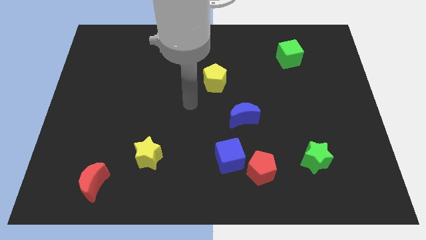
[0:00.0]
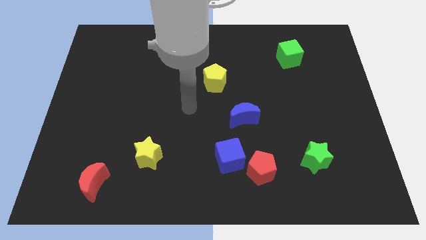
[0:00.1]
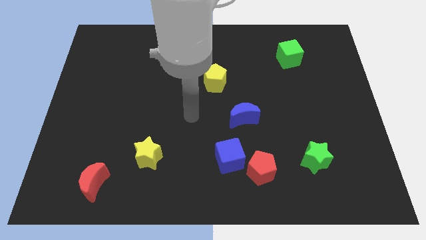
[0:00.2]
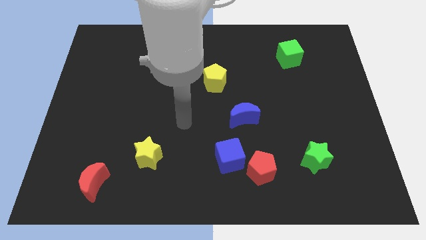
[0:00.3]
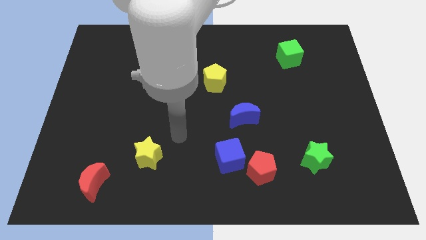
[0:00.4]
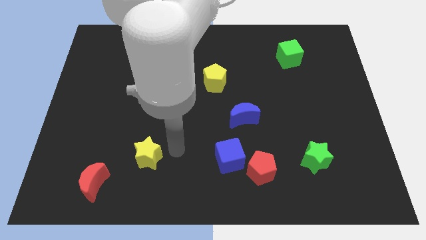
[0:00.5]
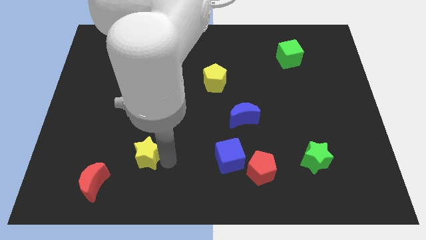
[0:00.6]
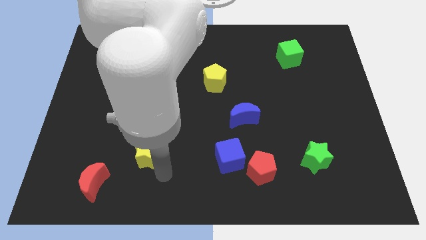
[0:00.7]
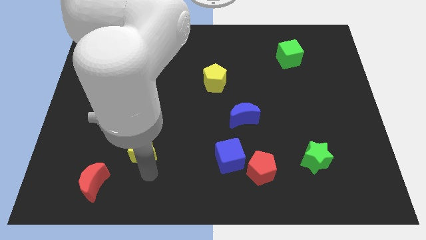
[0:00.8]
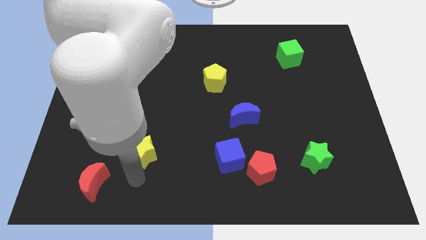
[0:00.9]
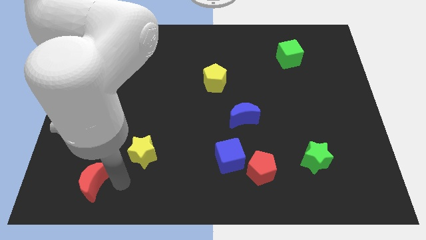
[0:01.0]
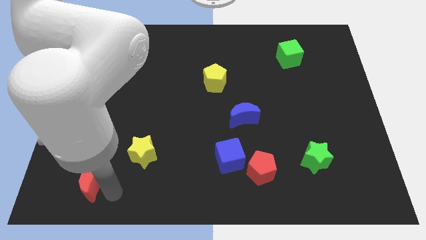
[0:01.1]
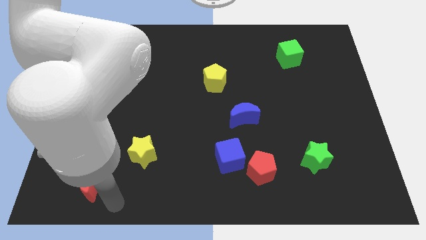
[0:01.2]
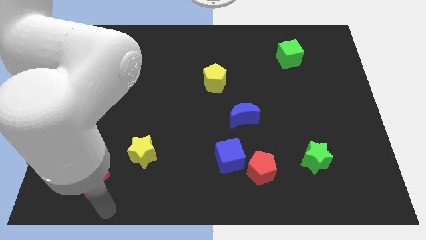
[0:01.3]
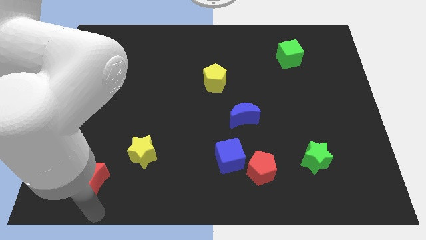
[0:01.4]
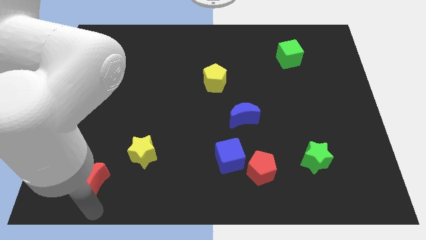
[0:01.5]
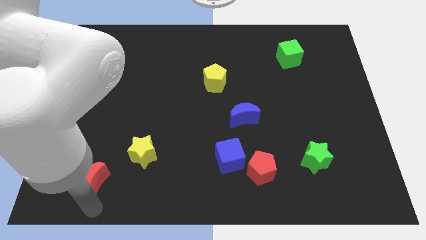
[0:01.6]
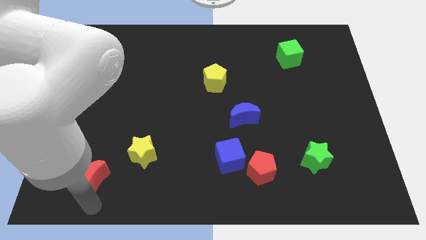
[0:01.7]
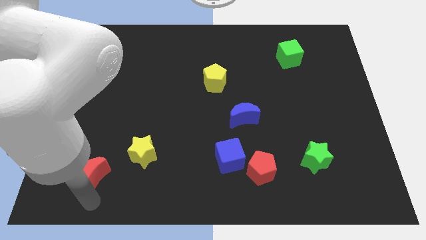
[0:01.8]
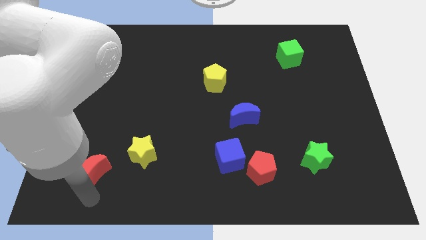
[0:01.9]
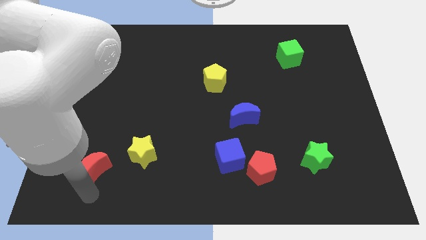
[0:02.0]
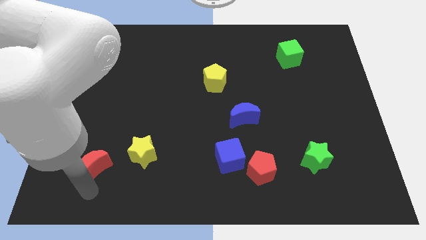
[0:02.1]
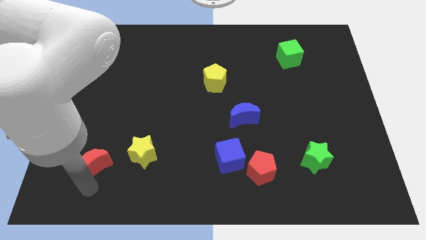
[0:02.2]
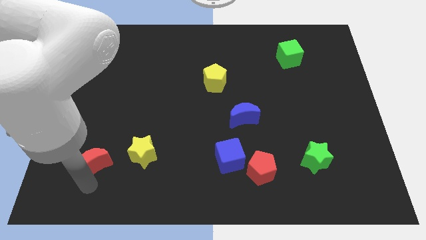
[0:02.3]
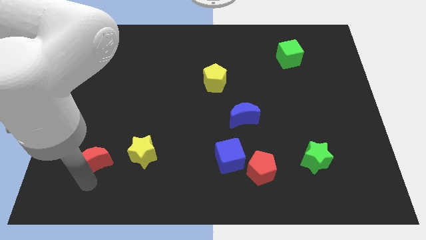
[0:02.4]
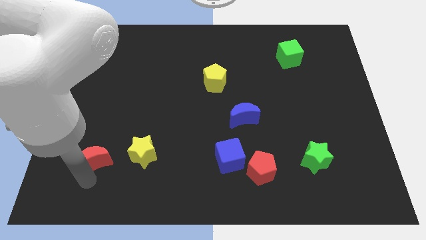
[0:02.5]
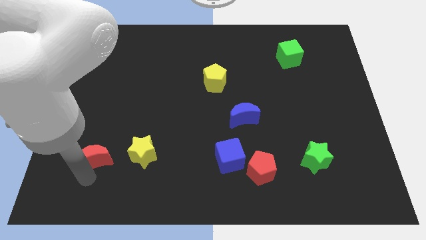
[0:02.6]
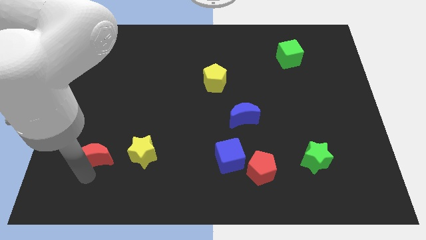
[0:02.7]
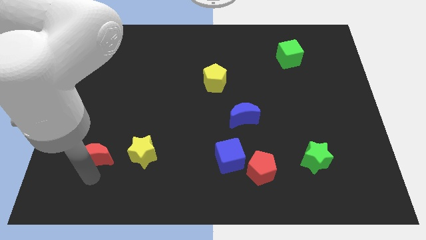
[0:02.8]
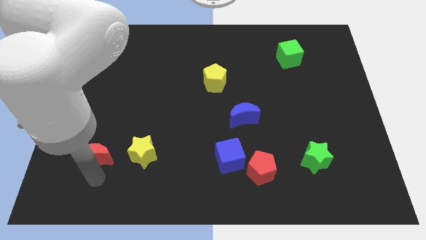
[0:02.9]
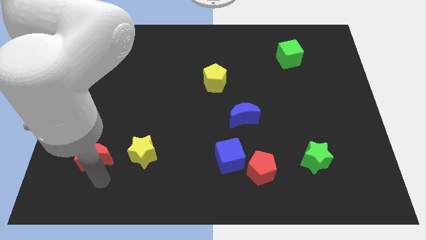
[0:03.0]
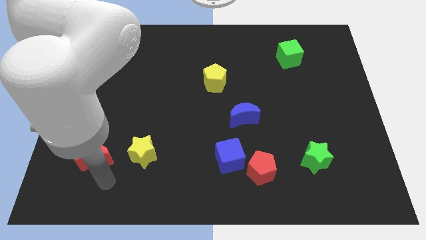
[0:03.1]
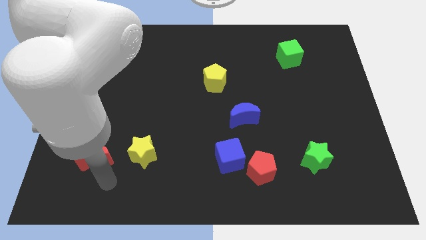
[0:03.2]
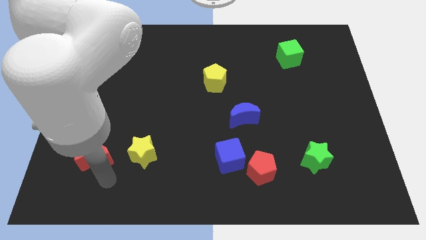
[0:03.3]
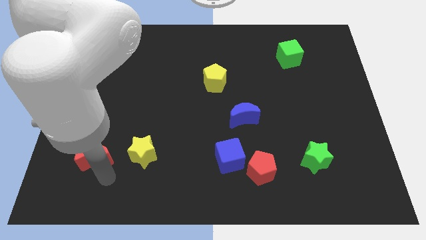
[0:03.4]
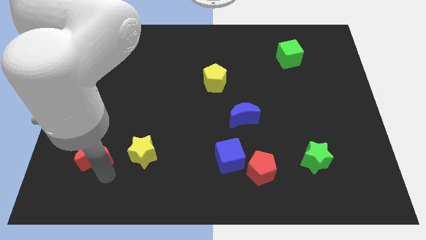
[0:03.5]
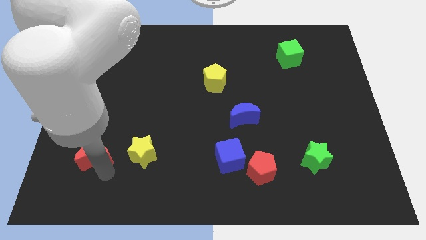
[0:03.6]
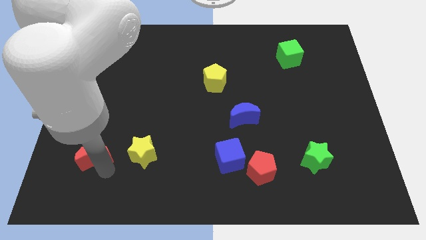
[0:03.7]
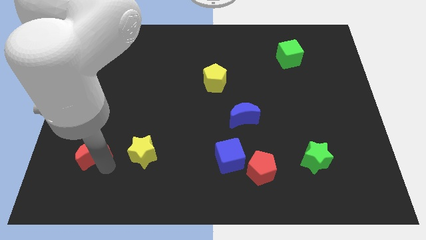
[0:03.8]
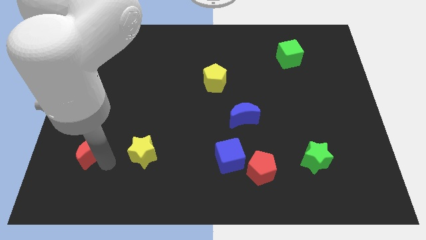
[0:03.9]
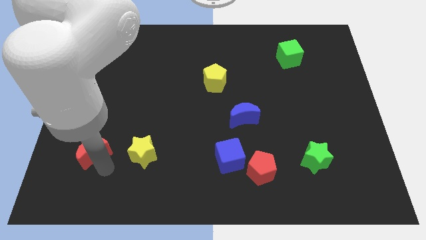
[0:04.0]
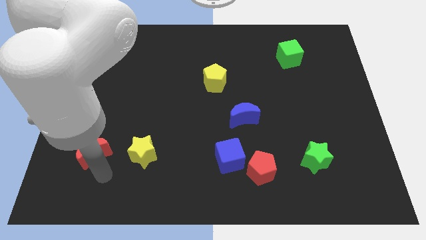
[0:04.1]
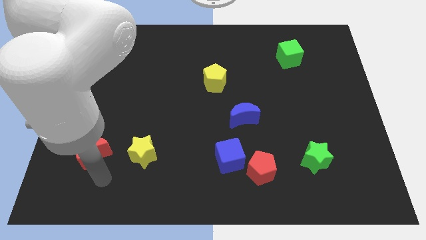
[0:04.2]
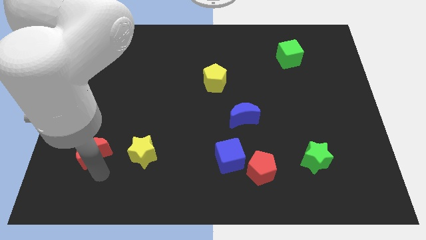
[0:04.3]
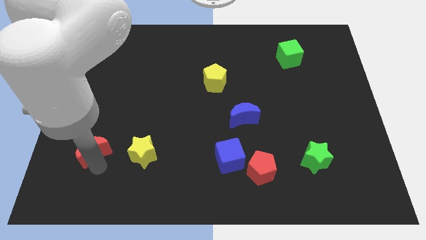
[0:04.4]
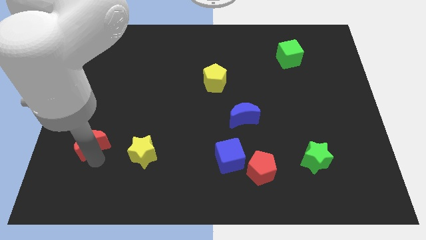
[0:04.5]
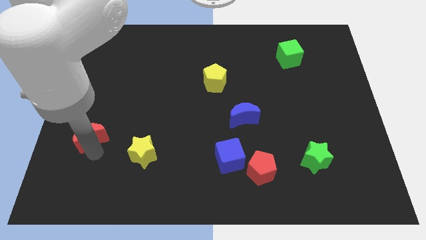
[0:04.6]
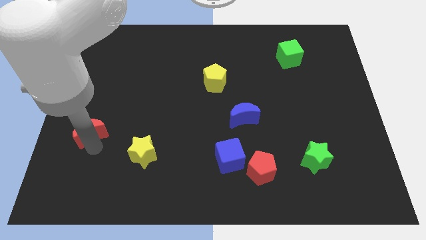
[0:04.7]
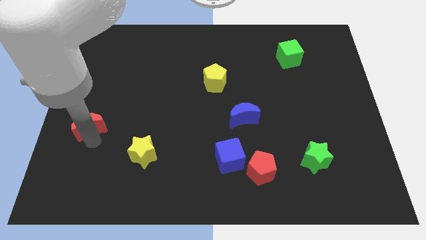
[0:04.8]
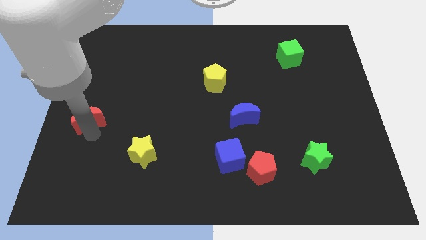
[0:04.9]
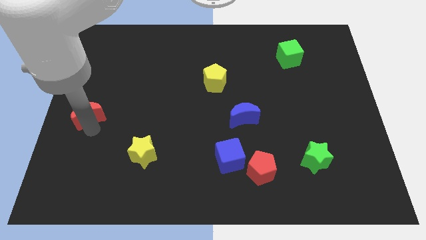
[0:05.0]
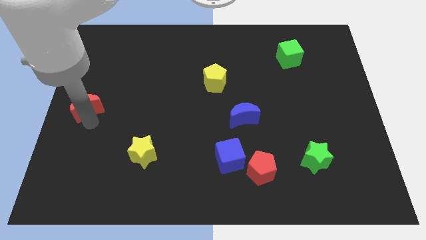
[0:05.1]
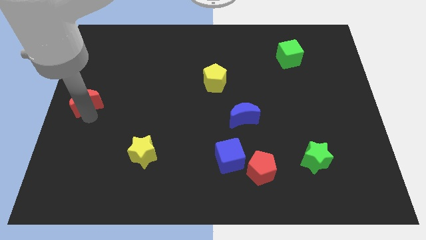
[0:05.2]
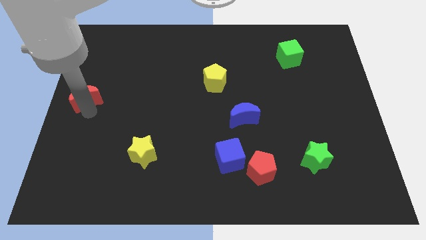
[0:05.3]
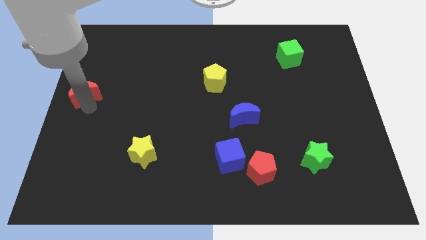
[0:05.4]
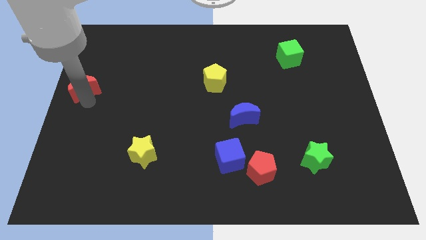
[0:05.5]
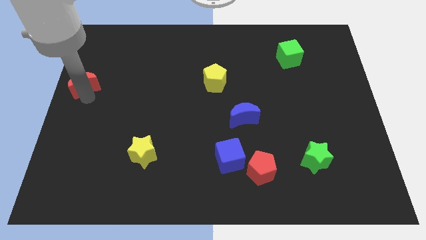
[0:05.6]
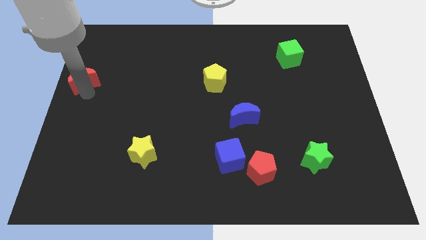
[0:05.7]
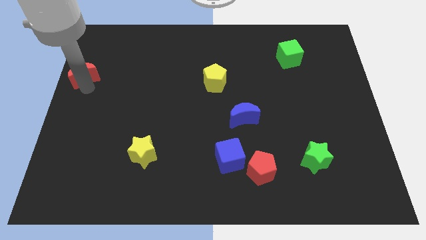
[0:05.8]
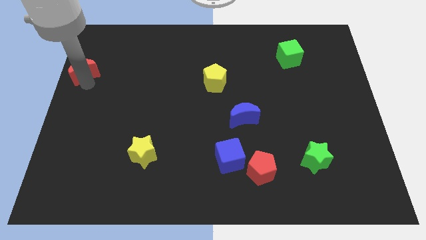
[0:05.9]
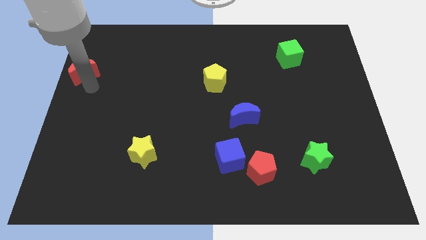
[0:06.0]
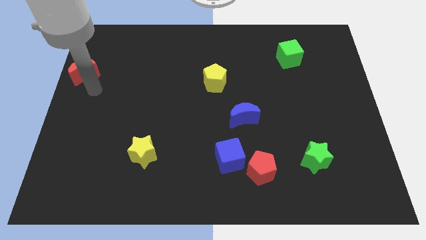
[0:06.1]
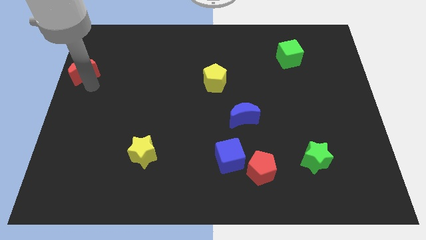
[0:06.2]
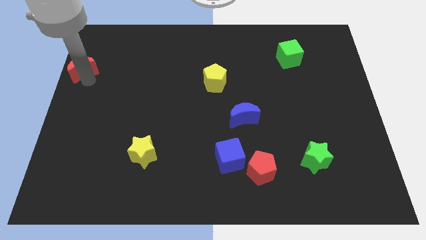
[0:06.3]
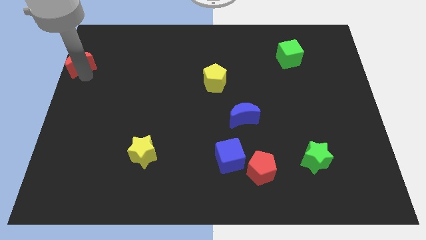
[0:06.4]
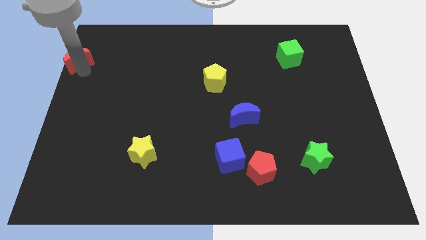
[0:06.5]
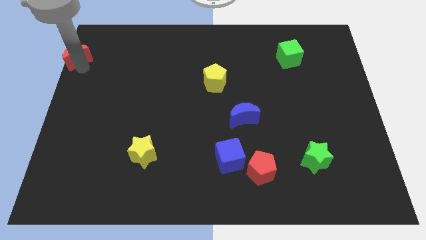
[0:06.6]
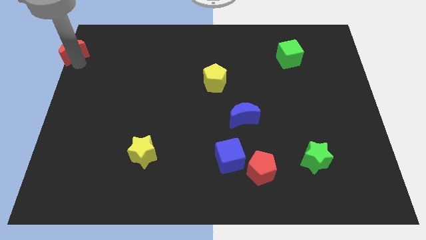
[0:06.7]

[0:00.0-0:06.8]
put the red moon to the top left
